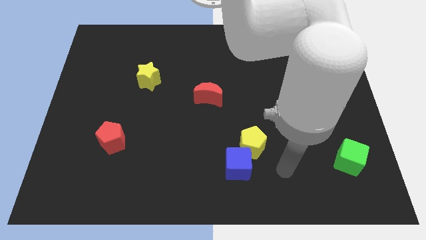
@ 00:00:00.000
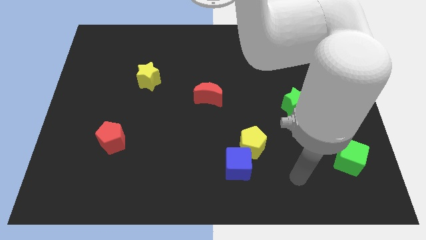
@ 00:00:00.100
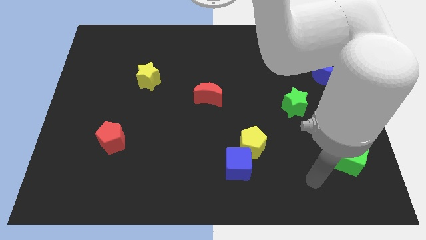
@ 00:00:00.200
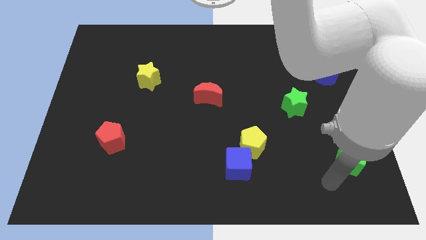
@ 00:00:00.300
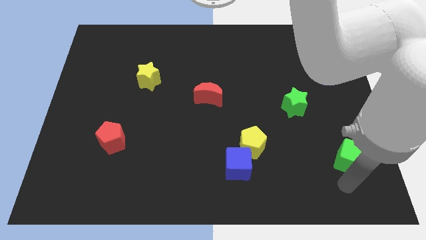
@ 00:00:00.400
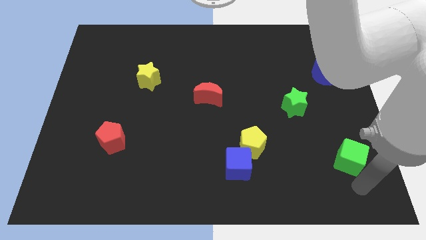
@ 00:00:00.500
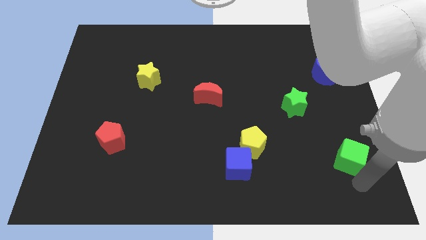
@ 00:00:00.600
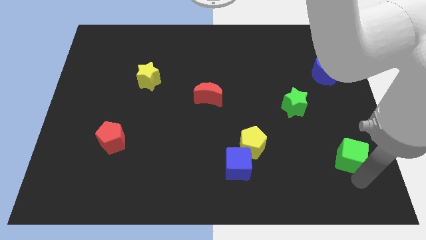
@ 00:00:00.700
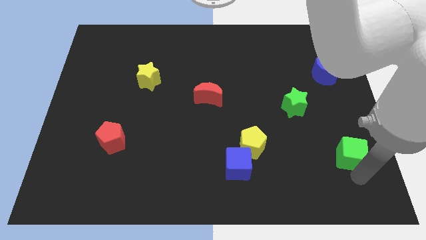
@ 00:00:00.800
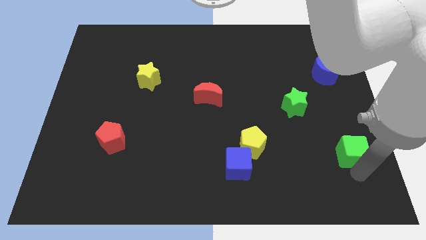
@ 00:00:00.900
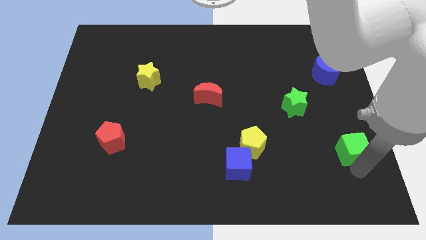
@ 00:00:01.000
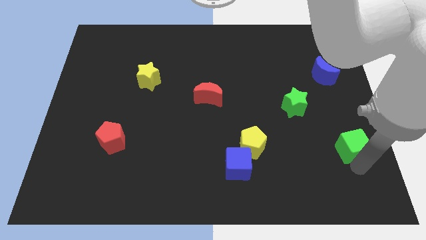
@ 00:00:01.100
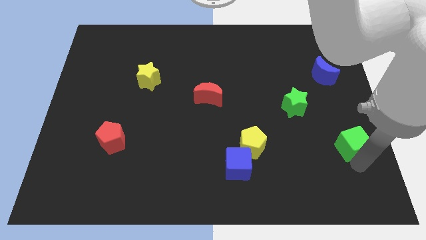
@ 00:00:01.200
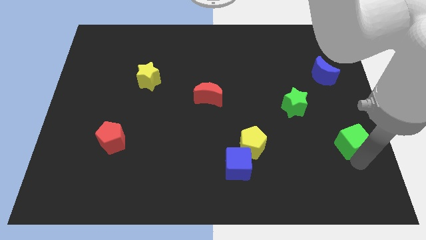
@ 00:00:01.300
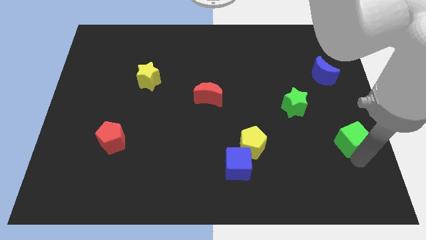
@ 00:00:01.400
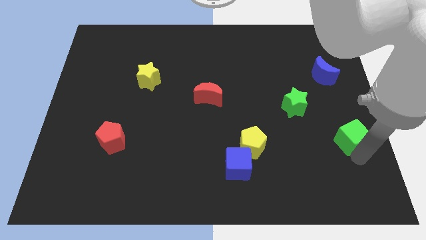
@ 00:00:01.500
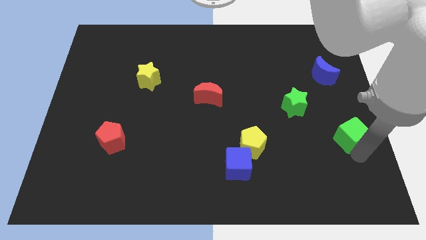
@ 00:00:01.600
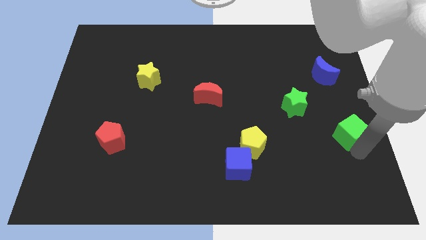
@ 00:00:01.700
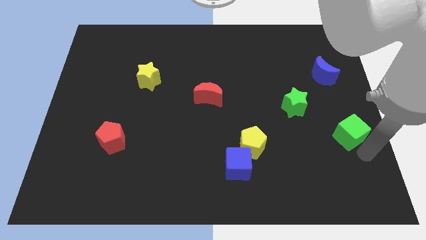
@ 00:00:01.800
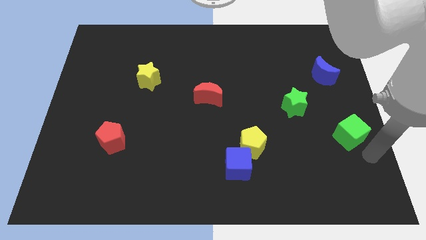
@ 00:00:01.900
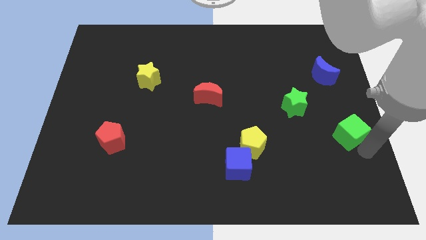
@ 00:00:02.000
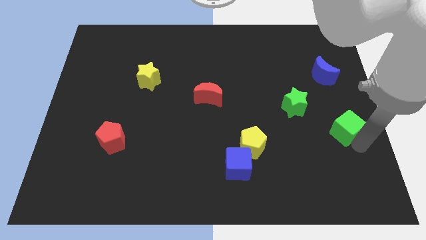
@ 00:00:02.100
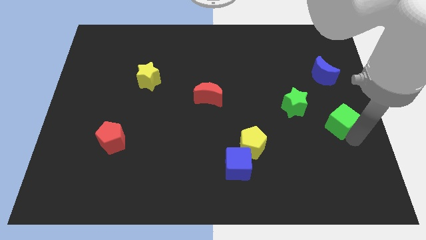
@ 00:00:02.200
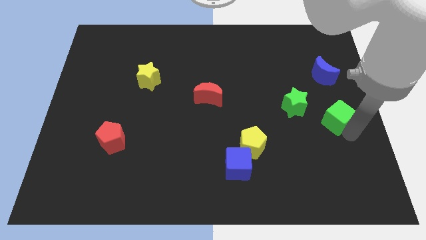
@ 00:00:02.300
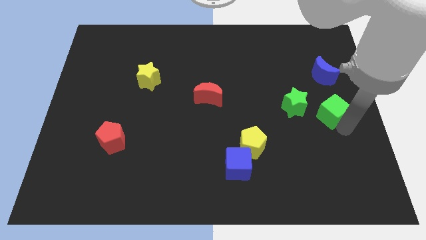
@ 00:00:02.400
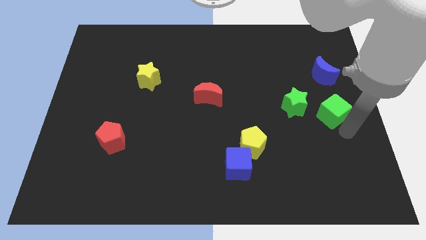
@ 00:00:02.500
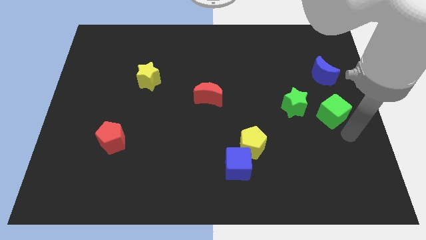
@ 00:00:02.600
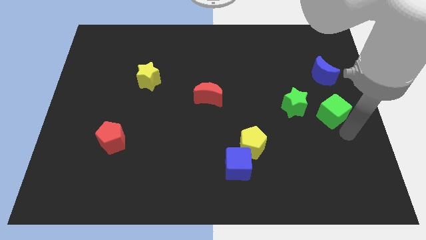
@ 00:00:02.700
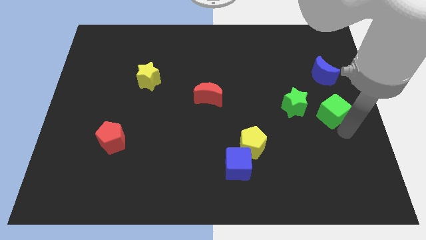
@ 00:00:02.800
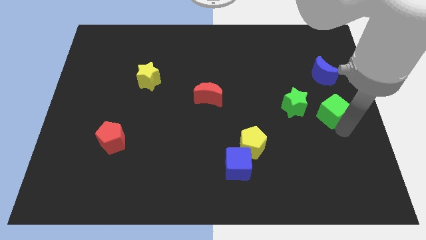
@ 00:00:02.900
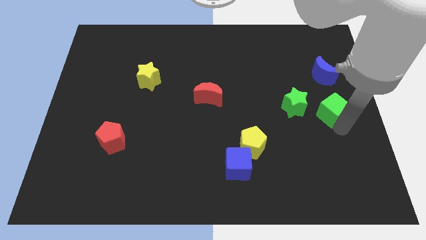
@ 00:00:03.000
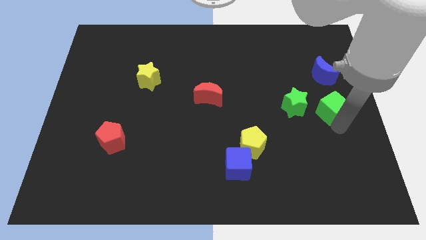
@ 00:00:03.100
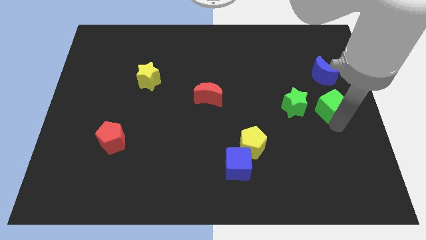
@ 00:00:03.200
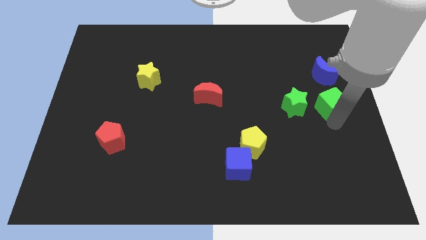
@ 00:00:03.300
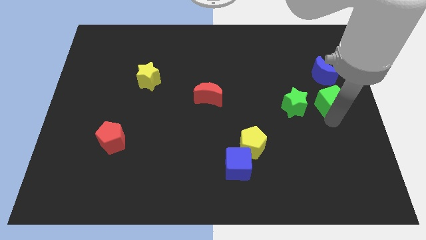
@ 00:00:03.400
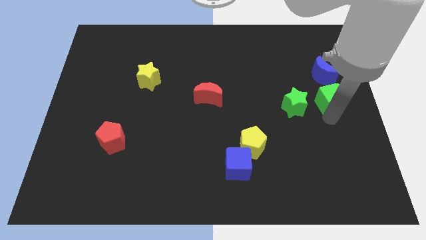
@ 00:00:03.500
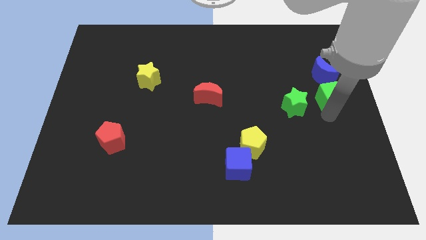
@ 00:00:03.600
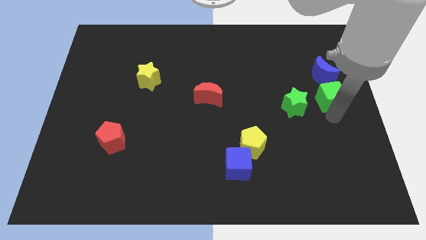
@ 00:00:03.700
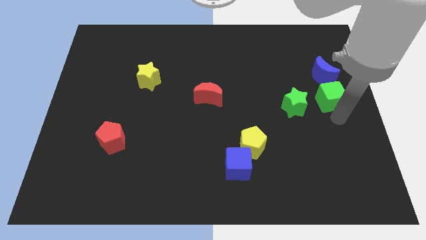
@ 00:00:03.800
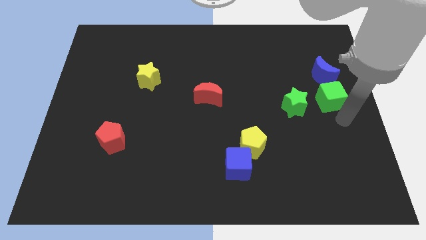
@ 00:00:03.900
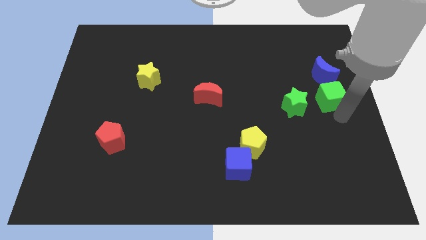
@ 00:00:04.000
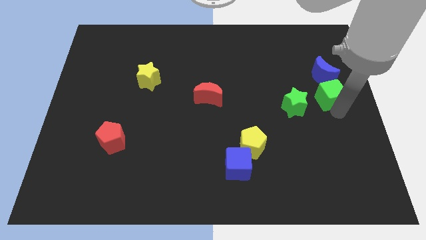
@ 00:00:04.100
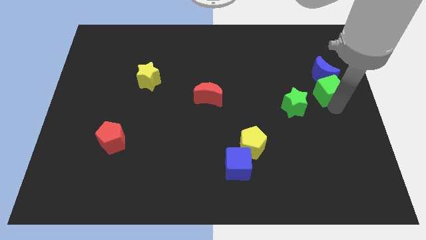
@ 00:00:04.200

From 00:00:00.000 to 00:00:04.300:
put the green cube next to the blue moon

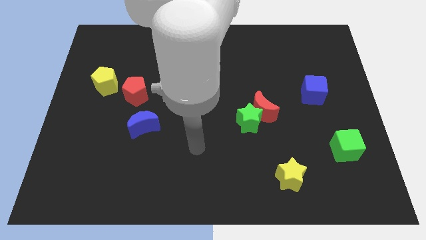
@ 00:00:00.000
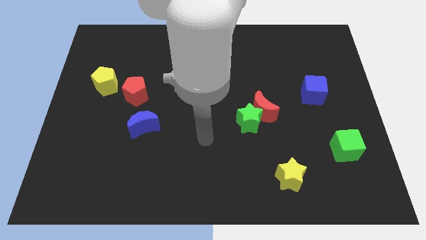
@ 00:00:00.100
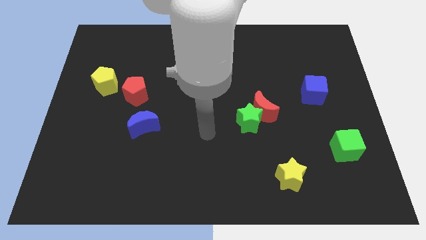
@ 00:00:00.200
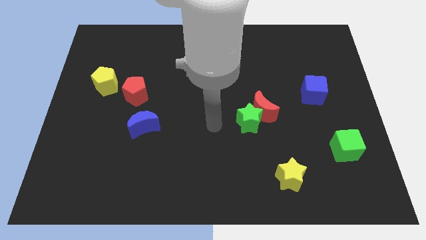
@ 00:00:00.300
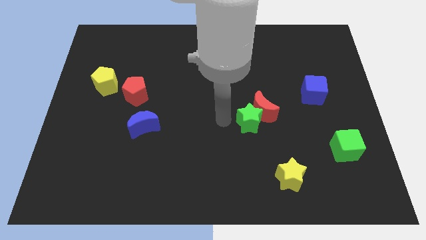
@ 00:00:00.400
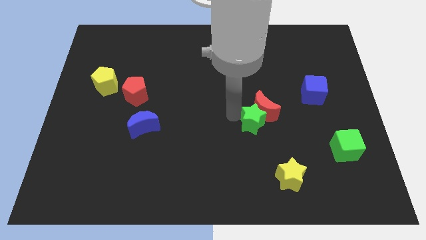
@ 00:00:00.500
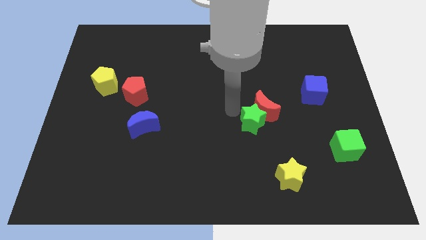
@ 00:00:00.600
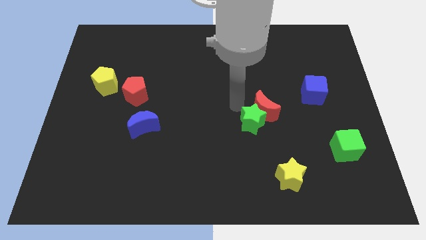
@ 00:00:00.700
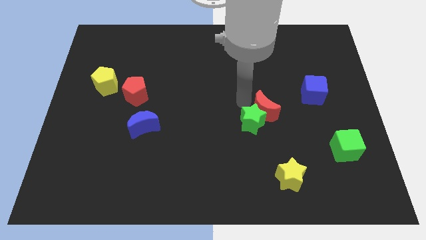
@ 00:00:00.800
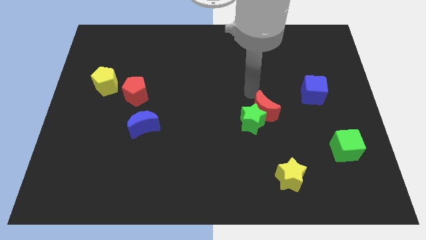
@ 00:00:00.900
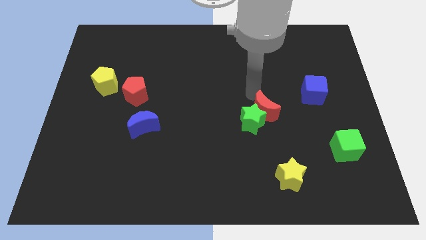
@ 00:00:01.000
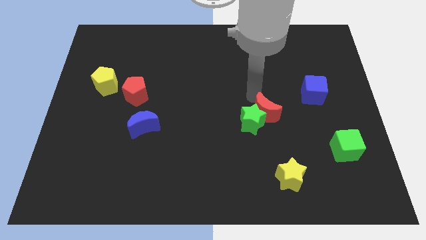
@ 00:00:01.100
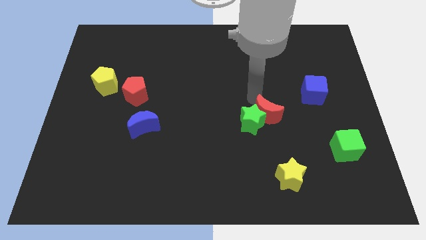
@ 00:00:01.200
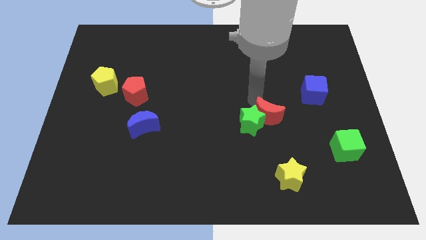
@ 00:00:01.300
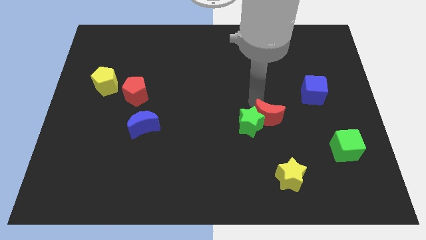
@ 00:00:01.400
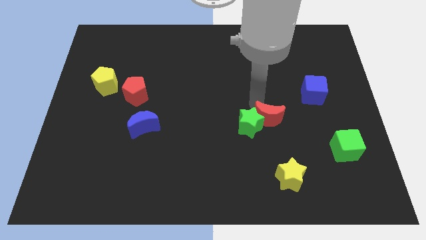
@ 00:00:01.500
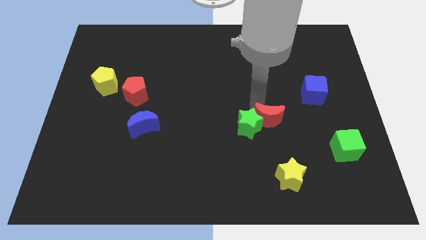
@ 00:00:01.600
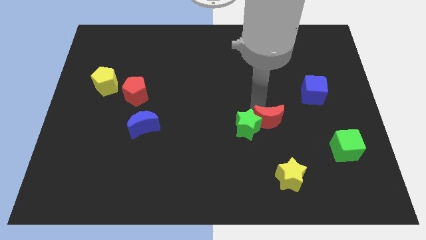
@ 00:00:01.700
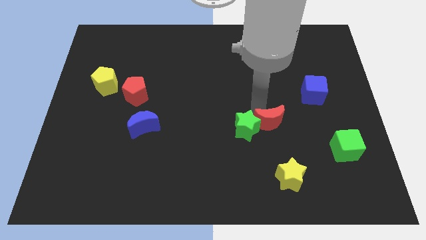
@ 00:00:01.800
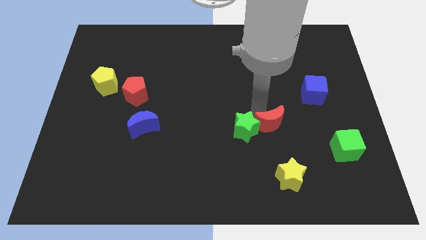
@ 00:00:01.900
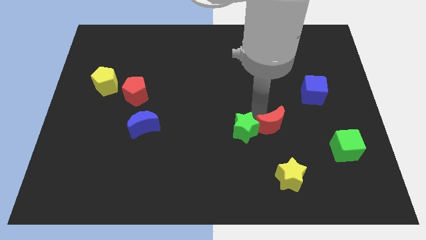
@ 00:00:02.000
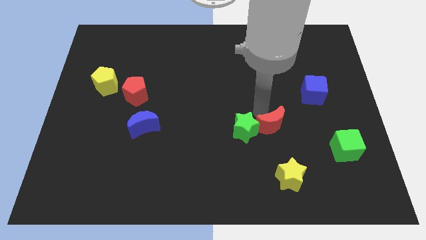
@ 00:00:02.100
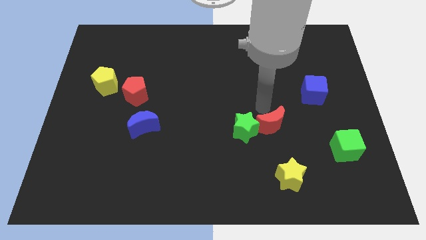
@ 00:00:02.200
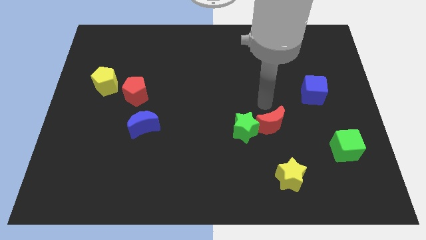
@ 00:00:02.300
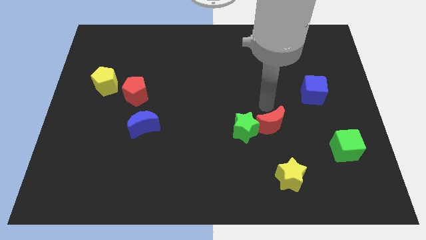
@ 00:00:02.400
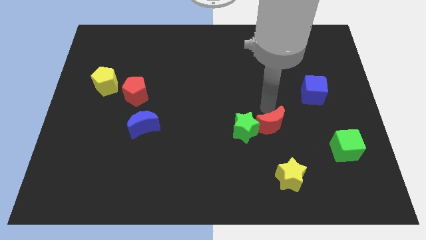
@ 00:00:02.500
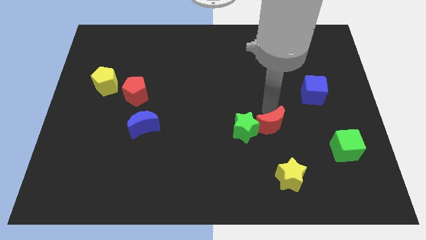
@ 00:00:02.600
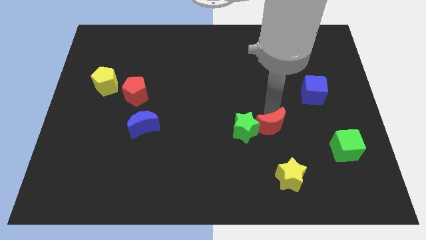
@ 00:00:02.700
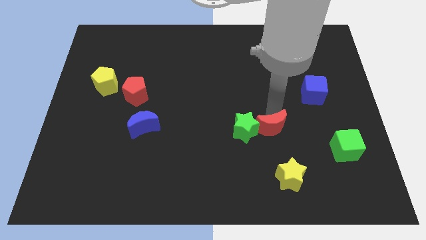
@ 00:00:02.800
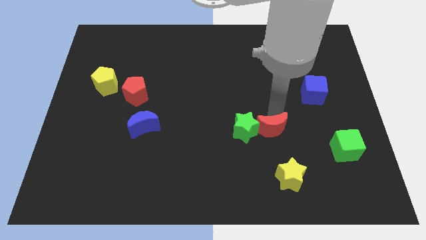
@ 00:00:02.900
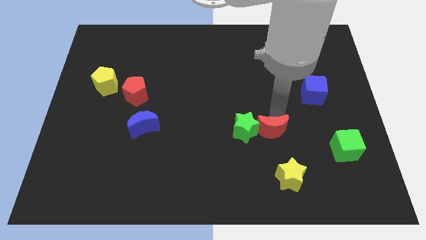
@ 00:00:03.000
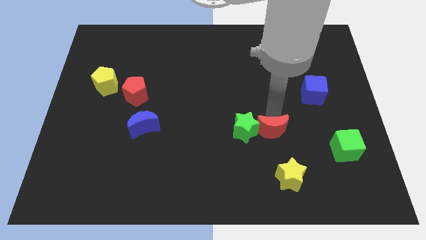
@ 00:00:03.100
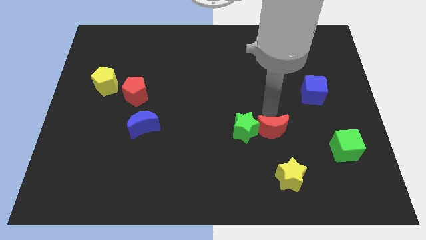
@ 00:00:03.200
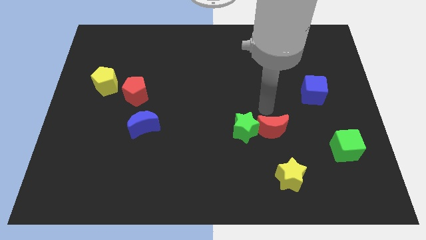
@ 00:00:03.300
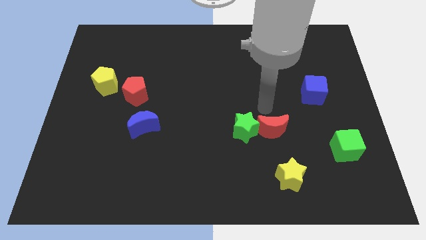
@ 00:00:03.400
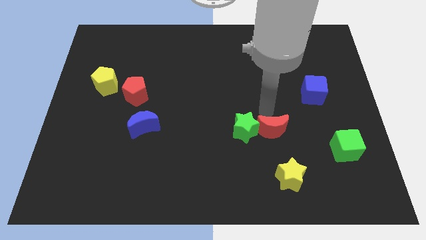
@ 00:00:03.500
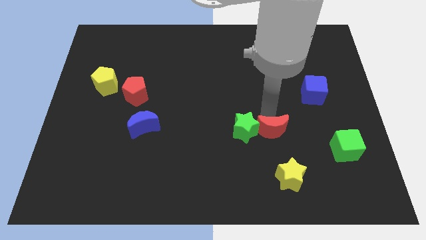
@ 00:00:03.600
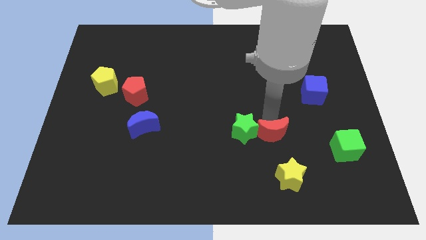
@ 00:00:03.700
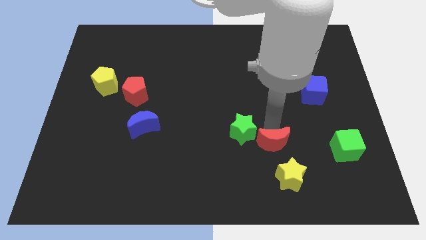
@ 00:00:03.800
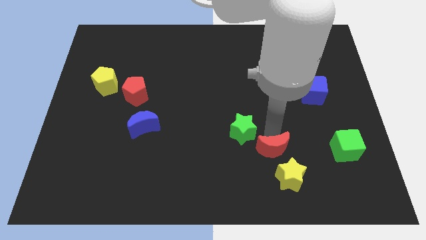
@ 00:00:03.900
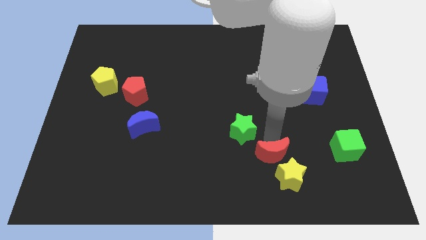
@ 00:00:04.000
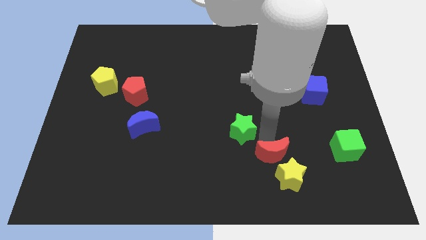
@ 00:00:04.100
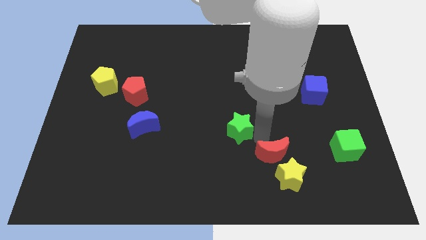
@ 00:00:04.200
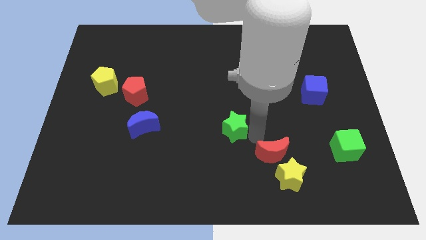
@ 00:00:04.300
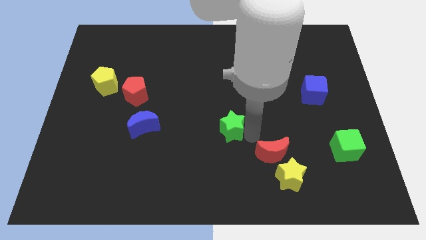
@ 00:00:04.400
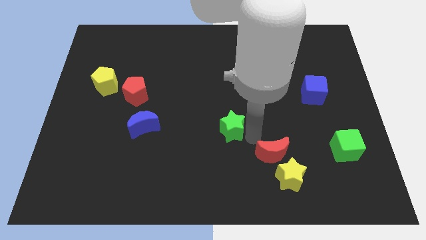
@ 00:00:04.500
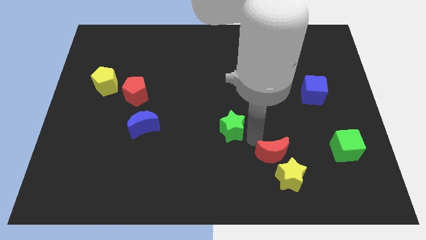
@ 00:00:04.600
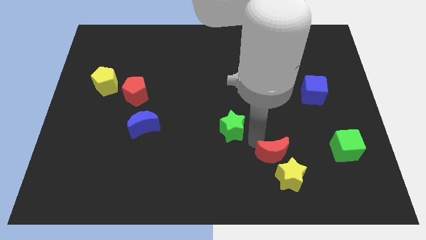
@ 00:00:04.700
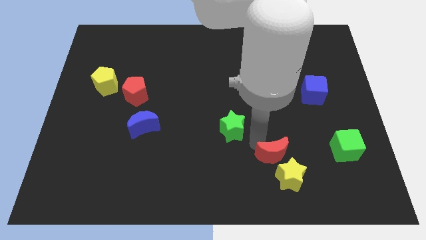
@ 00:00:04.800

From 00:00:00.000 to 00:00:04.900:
slide the red moon to the yellow star
